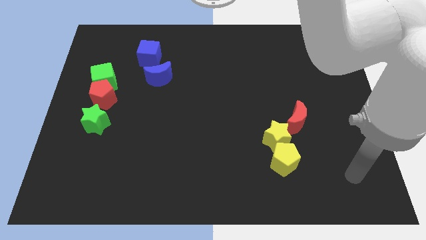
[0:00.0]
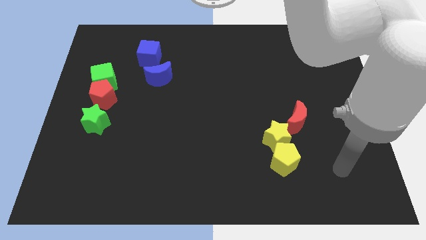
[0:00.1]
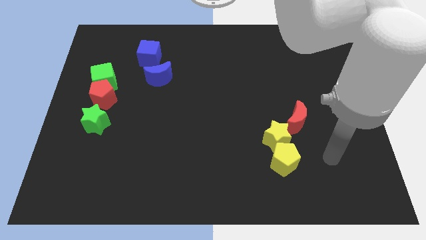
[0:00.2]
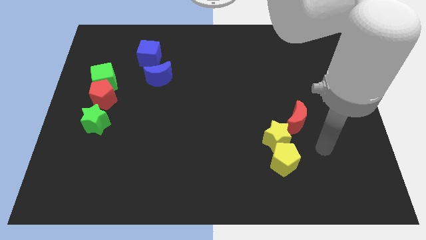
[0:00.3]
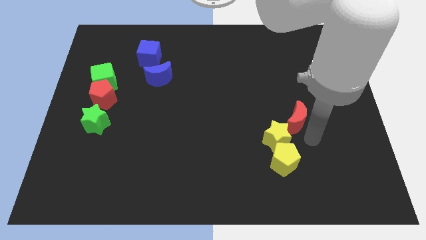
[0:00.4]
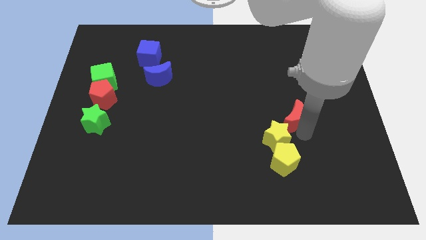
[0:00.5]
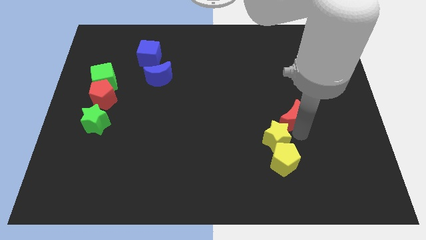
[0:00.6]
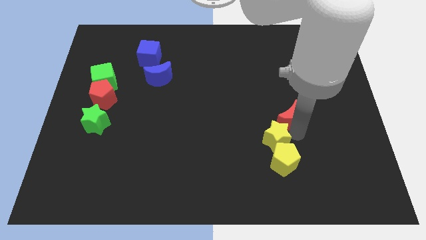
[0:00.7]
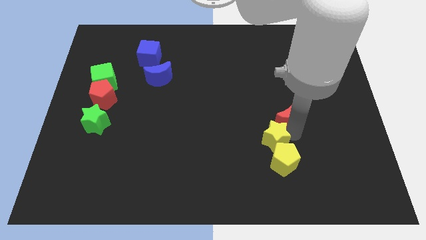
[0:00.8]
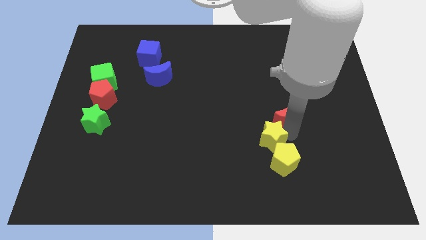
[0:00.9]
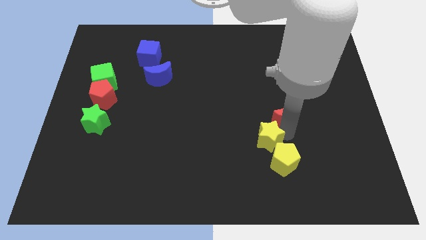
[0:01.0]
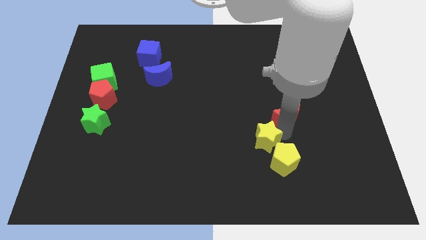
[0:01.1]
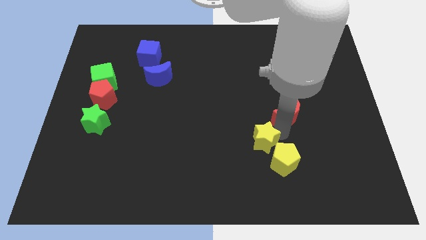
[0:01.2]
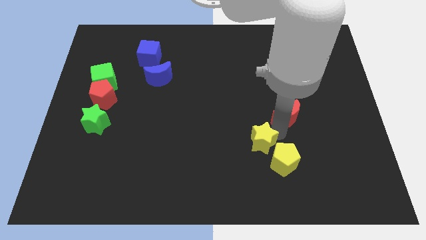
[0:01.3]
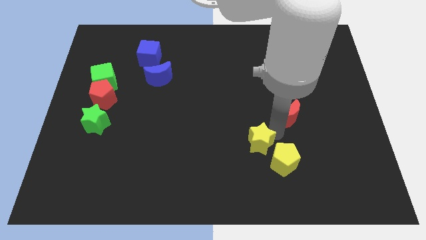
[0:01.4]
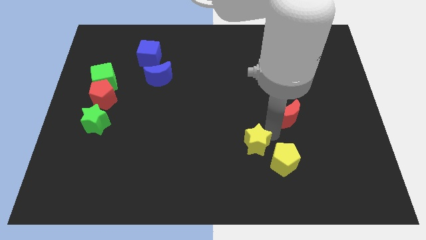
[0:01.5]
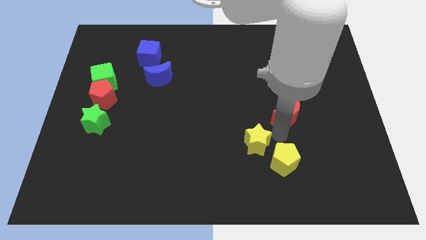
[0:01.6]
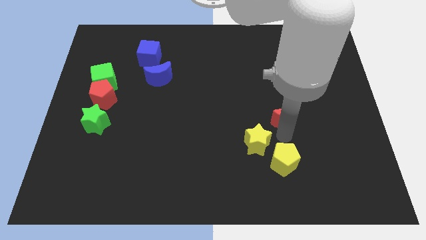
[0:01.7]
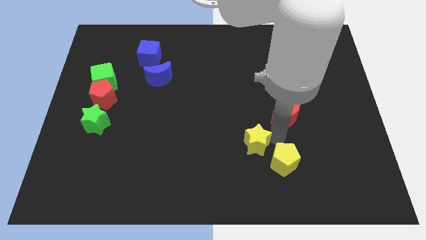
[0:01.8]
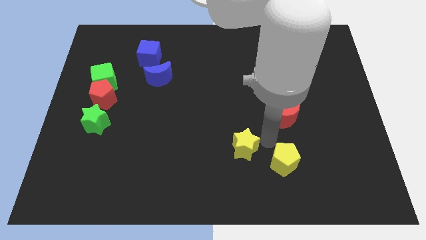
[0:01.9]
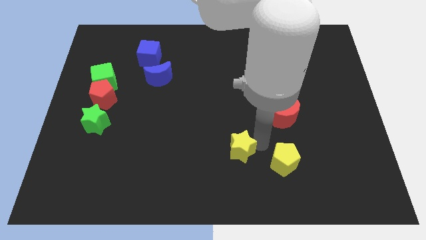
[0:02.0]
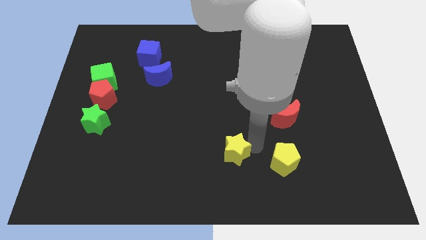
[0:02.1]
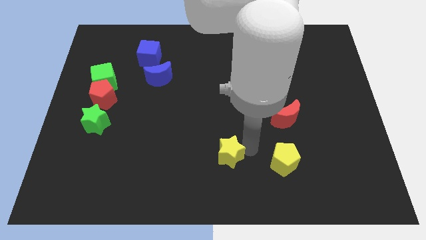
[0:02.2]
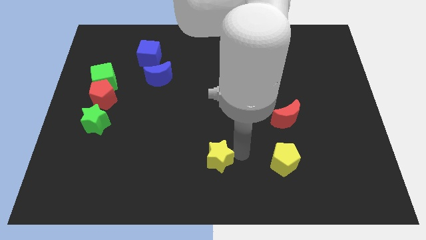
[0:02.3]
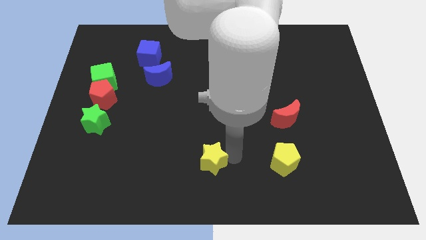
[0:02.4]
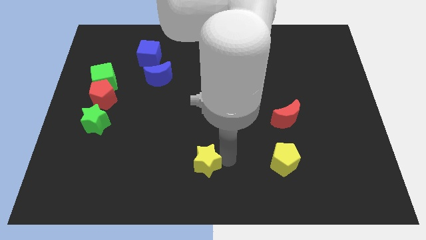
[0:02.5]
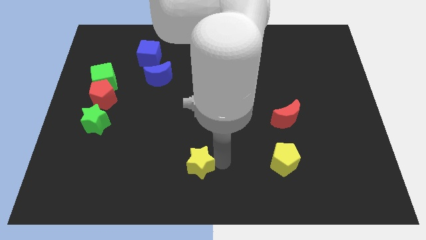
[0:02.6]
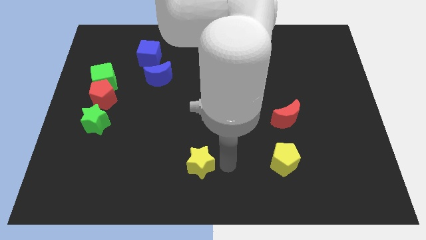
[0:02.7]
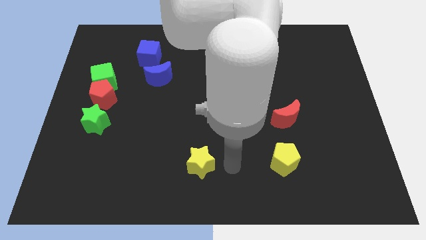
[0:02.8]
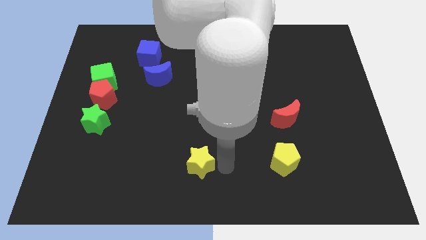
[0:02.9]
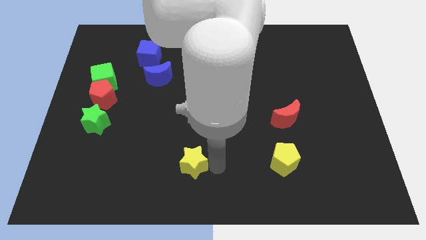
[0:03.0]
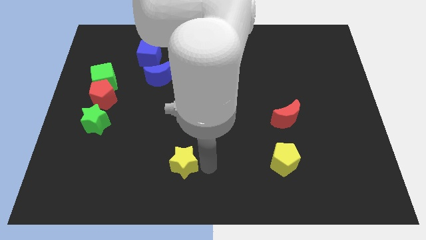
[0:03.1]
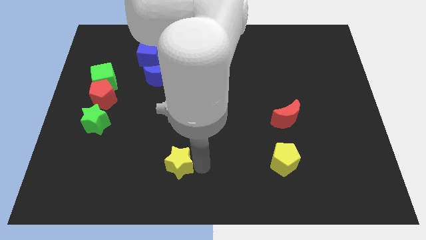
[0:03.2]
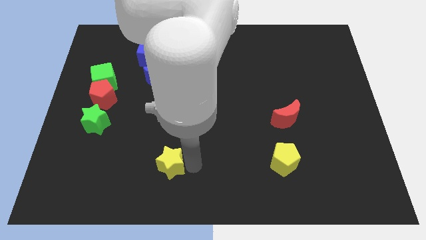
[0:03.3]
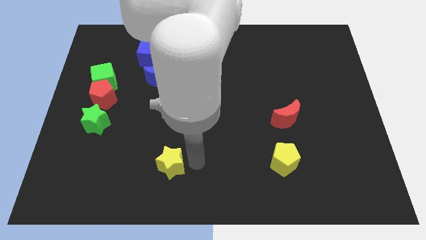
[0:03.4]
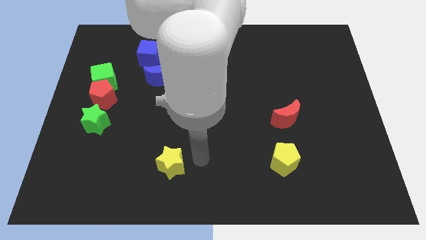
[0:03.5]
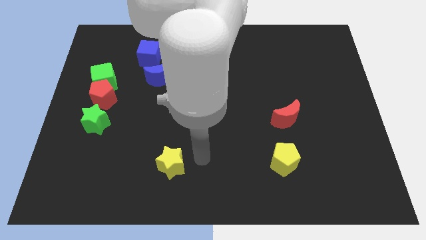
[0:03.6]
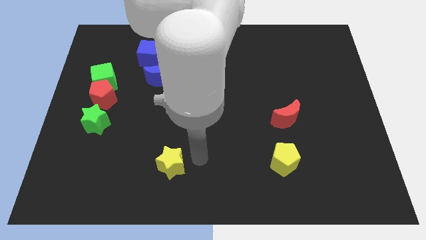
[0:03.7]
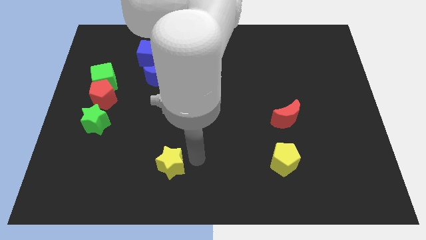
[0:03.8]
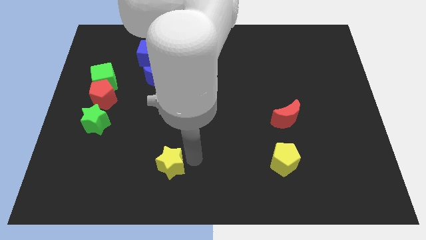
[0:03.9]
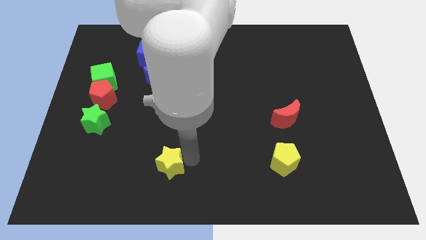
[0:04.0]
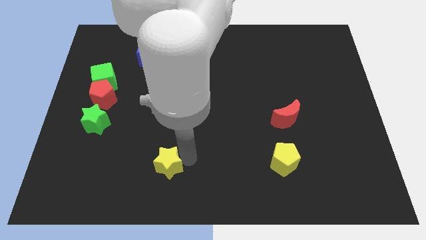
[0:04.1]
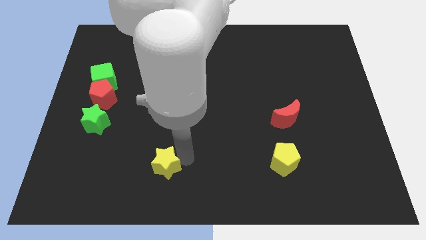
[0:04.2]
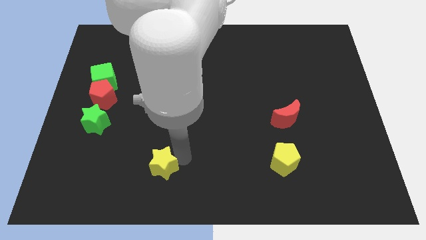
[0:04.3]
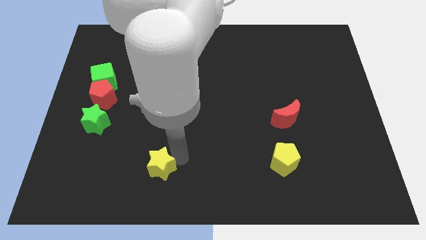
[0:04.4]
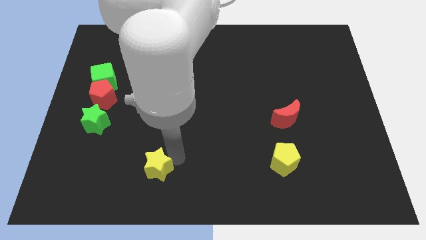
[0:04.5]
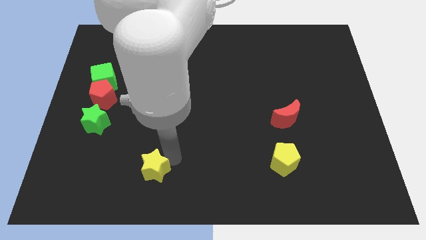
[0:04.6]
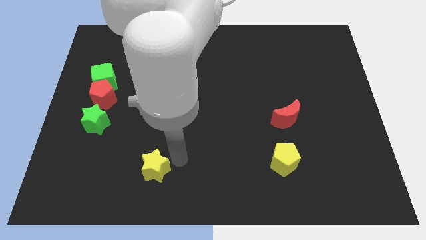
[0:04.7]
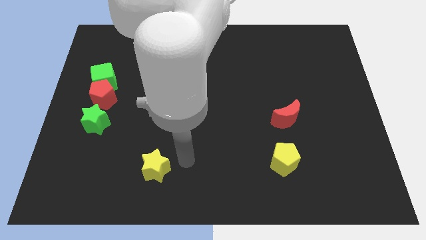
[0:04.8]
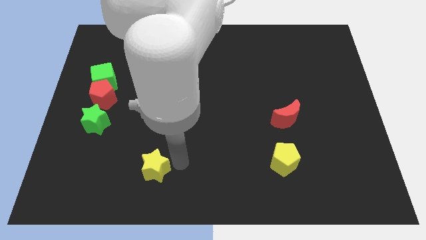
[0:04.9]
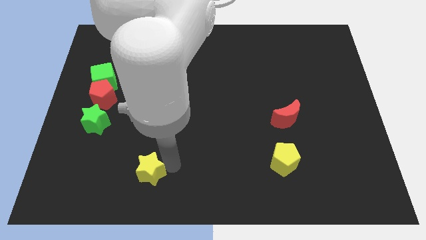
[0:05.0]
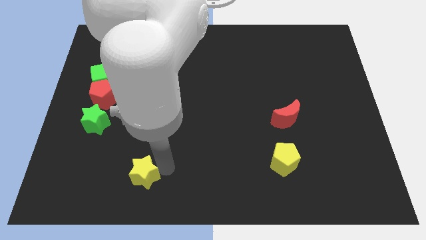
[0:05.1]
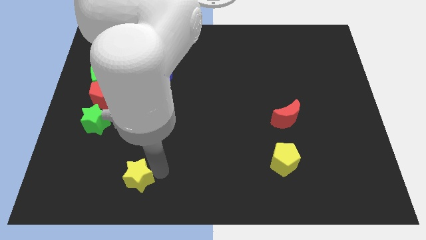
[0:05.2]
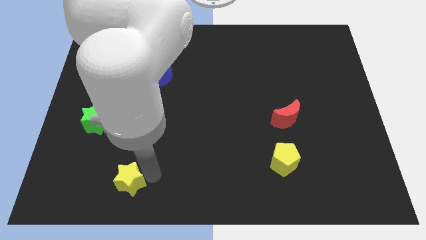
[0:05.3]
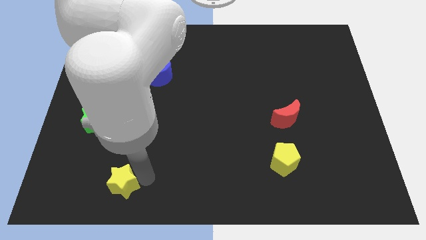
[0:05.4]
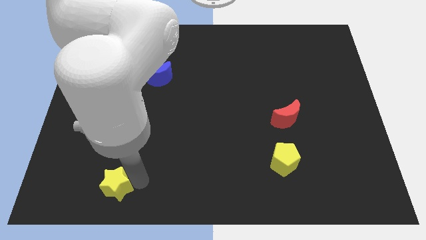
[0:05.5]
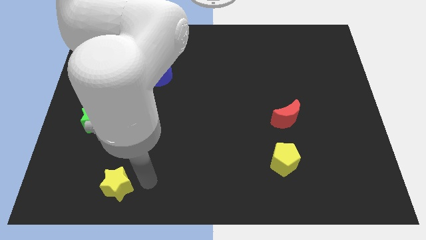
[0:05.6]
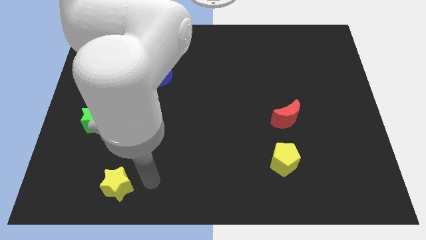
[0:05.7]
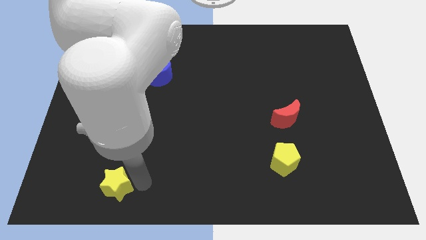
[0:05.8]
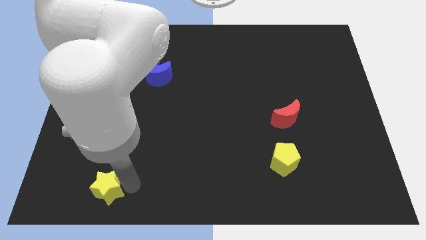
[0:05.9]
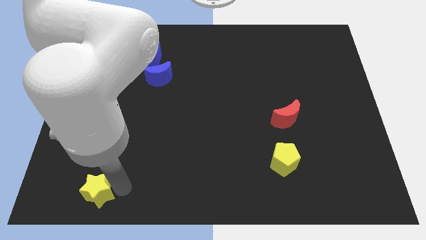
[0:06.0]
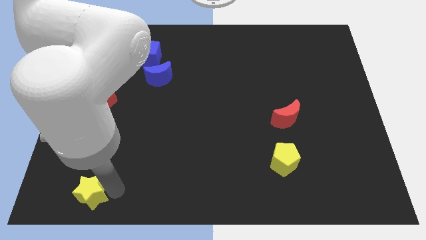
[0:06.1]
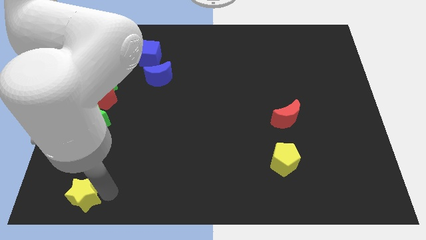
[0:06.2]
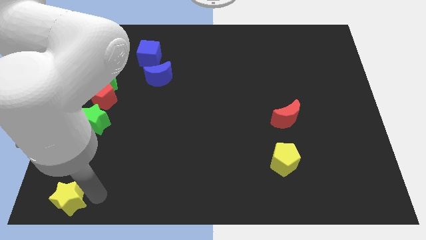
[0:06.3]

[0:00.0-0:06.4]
put the yellow star to the bottom left of the board
